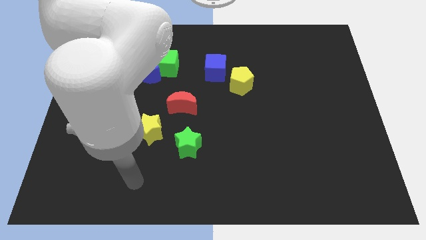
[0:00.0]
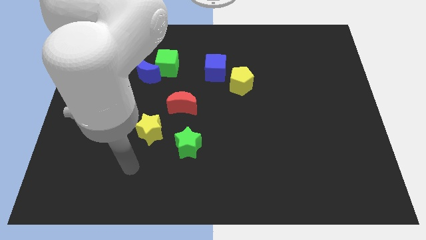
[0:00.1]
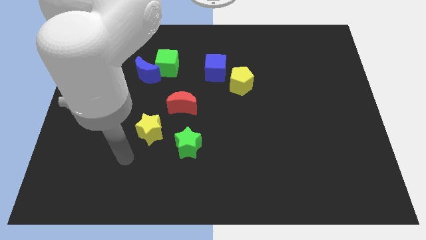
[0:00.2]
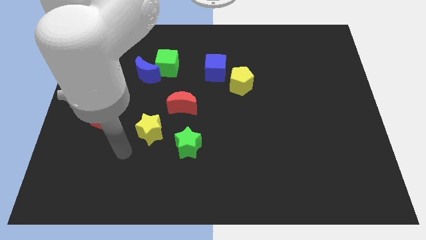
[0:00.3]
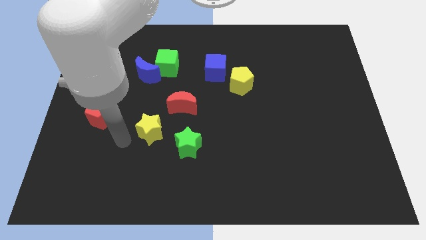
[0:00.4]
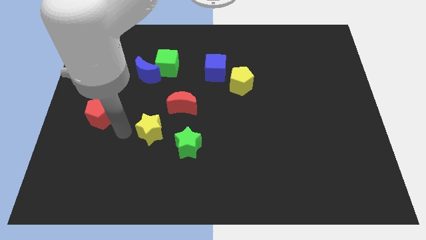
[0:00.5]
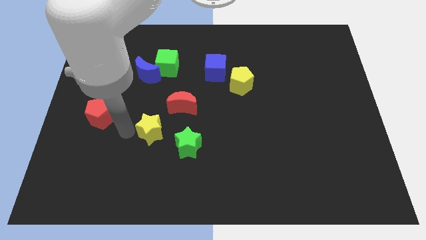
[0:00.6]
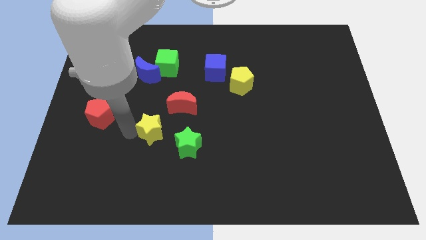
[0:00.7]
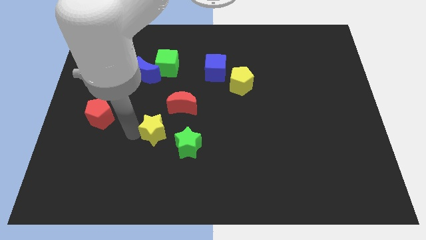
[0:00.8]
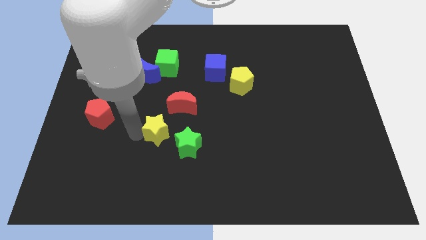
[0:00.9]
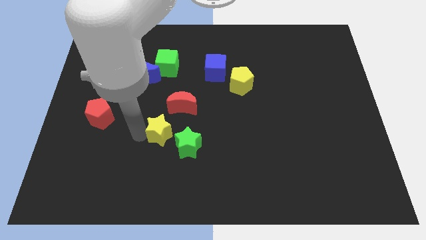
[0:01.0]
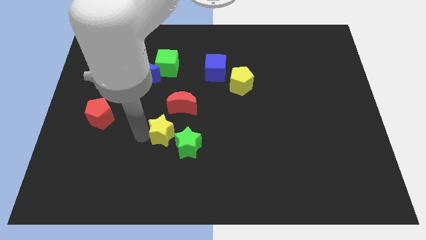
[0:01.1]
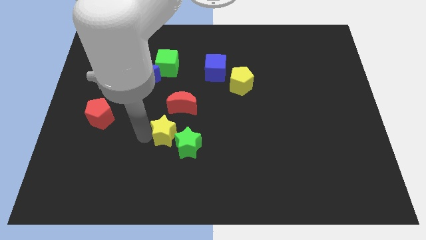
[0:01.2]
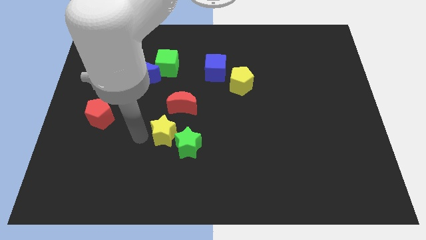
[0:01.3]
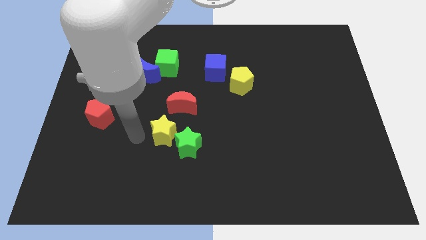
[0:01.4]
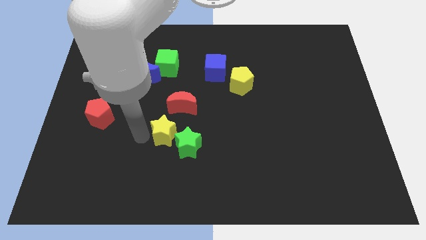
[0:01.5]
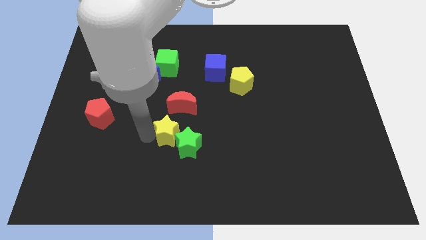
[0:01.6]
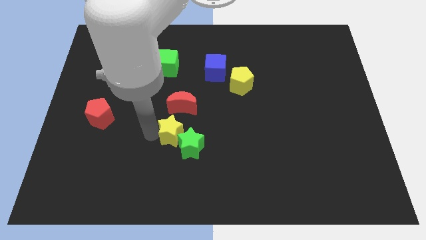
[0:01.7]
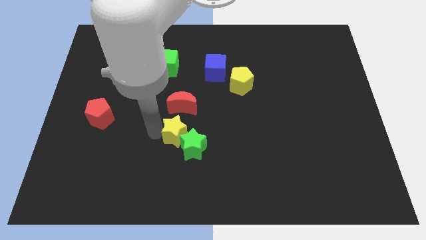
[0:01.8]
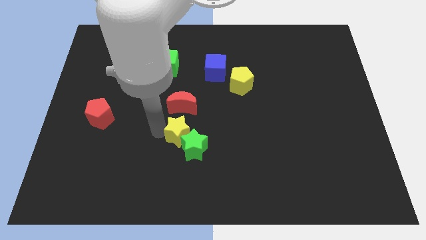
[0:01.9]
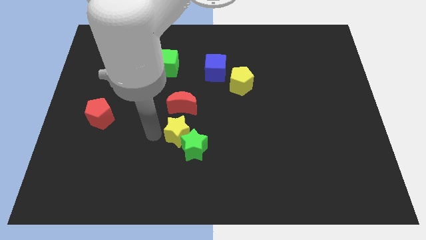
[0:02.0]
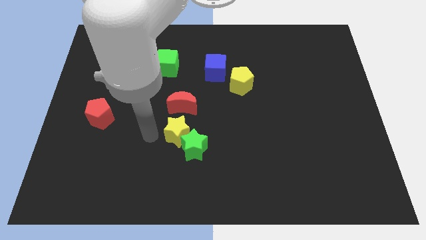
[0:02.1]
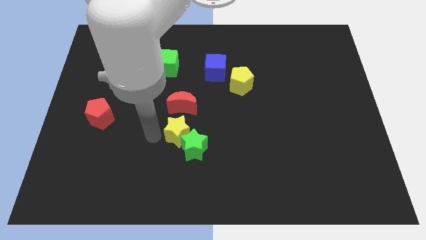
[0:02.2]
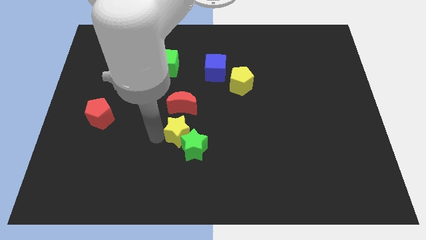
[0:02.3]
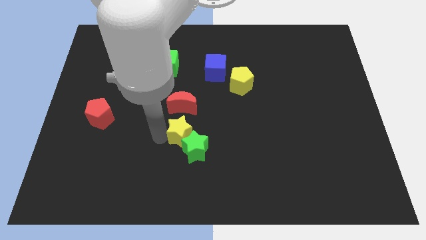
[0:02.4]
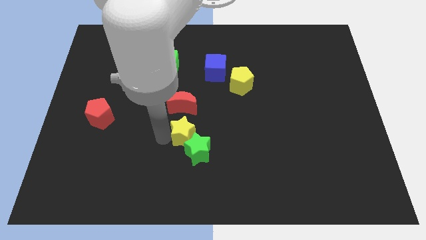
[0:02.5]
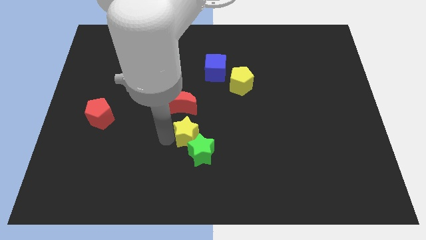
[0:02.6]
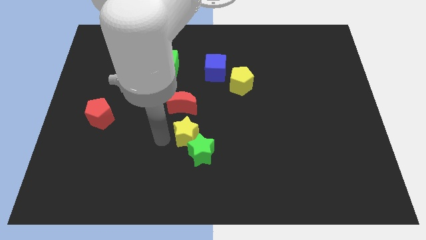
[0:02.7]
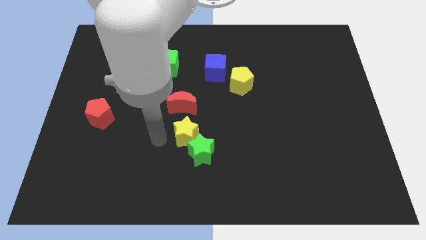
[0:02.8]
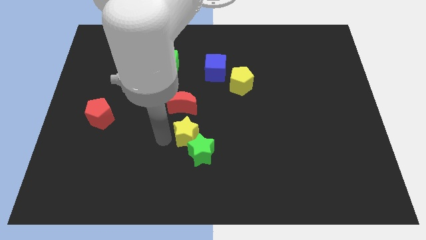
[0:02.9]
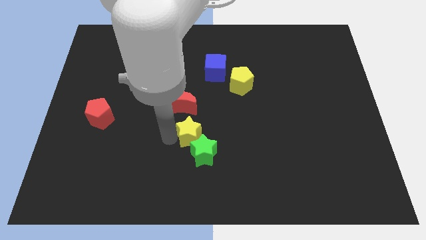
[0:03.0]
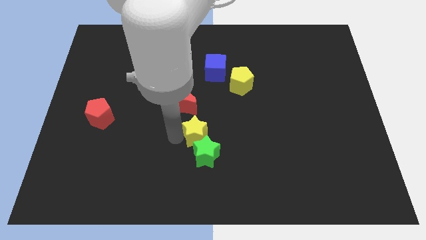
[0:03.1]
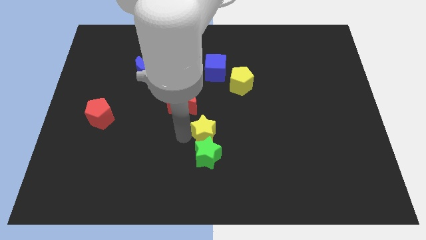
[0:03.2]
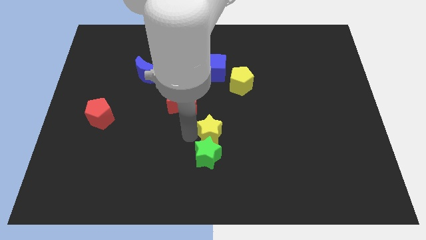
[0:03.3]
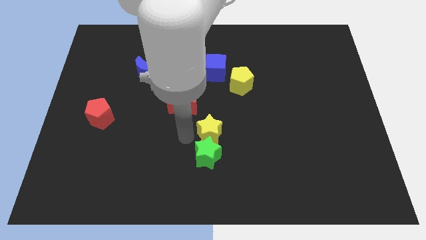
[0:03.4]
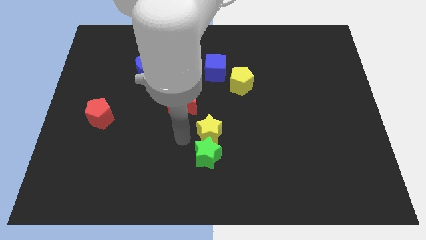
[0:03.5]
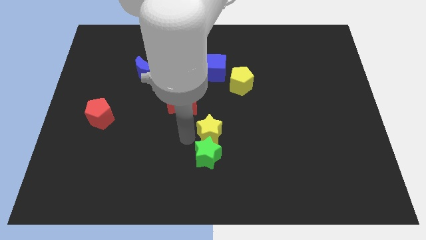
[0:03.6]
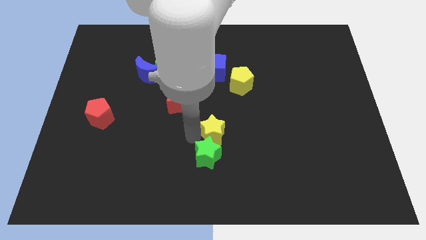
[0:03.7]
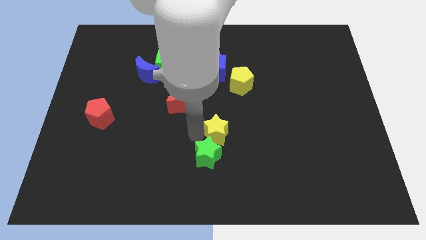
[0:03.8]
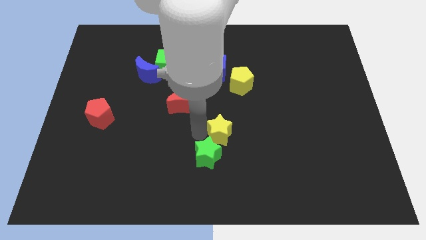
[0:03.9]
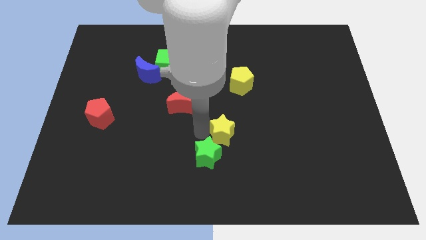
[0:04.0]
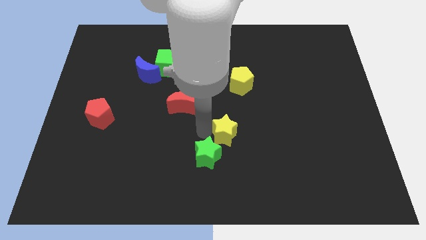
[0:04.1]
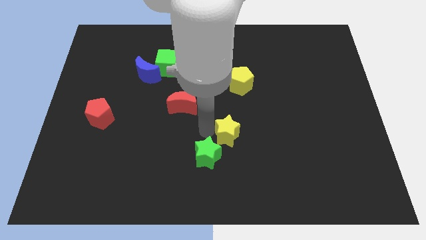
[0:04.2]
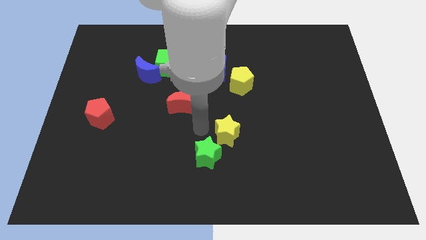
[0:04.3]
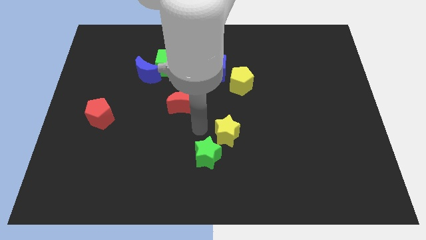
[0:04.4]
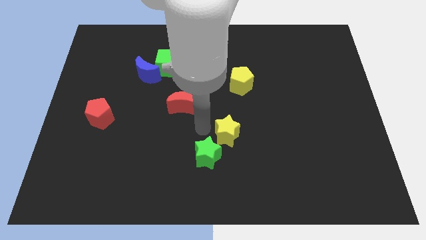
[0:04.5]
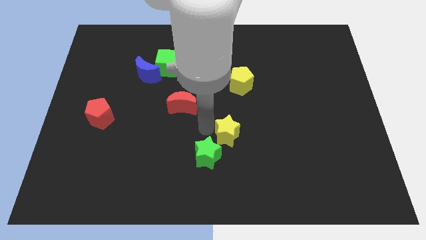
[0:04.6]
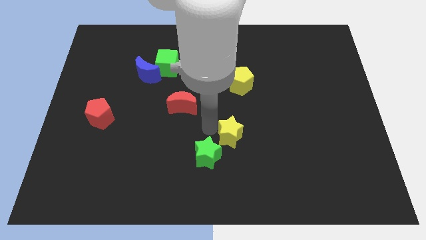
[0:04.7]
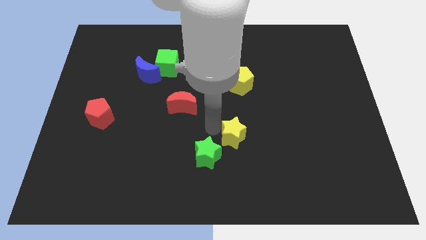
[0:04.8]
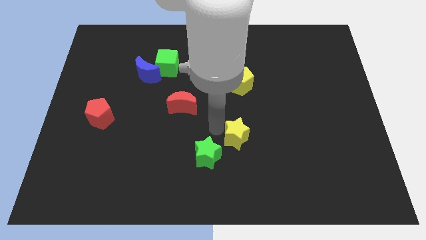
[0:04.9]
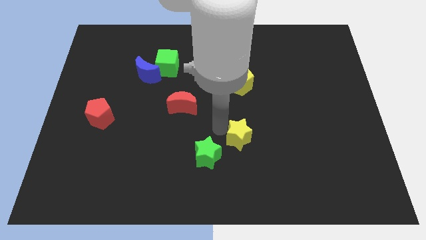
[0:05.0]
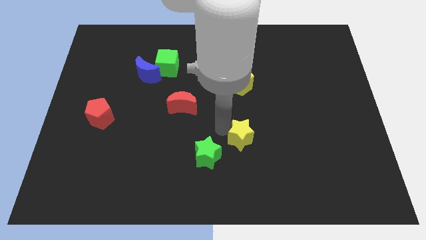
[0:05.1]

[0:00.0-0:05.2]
move the yellow star right

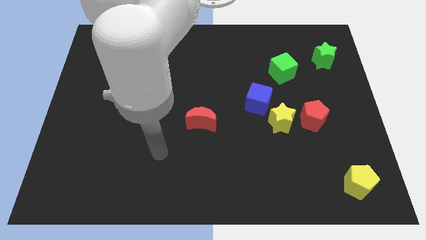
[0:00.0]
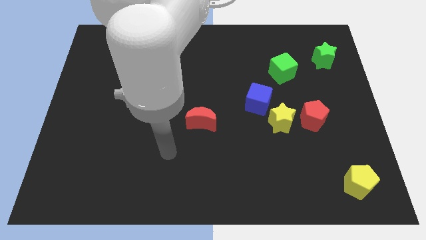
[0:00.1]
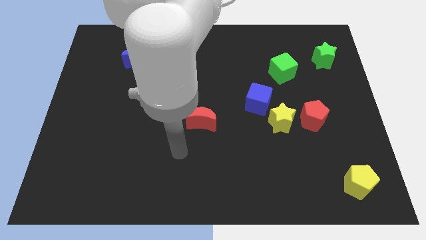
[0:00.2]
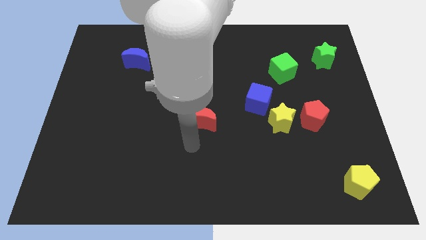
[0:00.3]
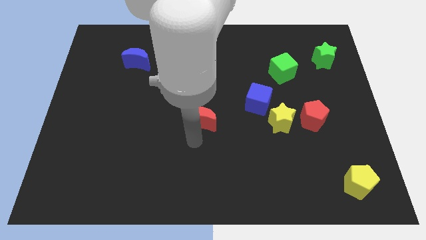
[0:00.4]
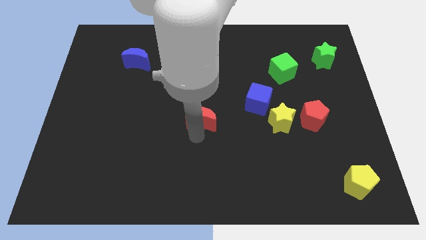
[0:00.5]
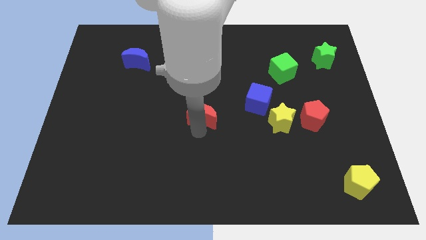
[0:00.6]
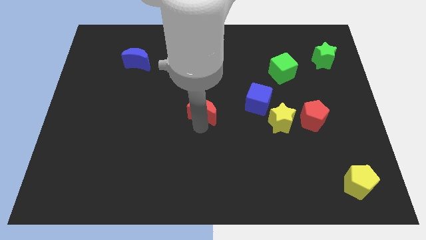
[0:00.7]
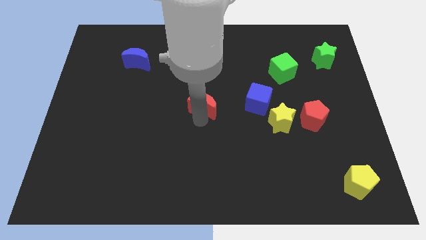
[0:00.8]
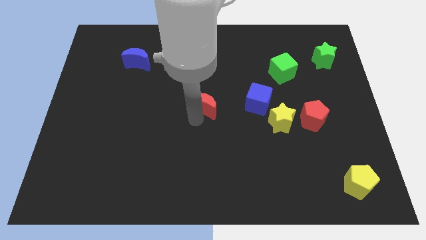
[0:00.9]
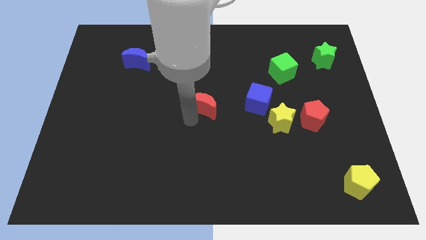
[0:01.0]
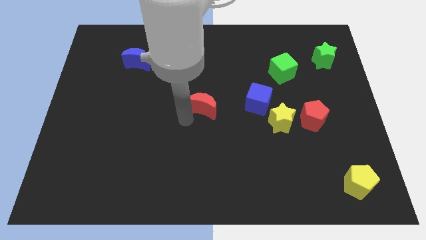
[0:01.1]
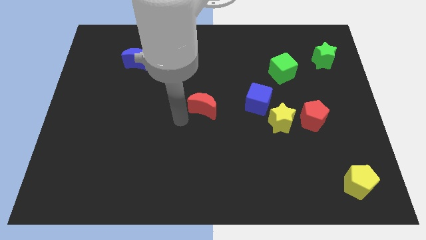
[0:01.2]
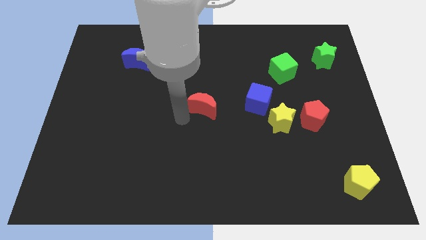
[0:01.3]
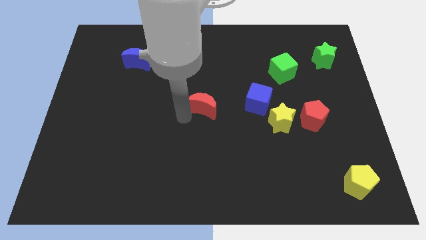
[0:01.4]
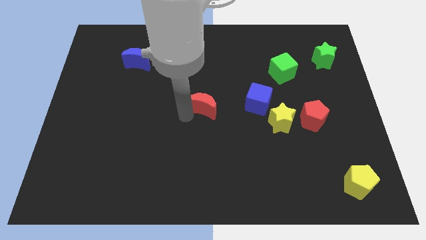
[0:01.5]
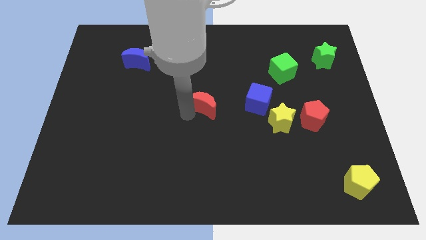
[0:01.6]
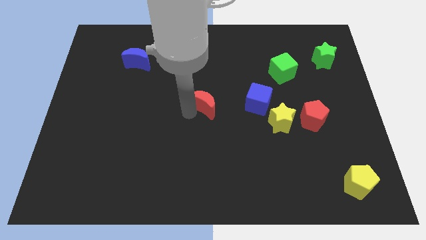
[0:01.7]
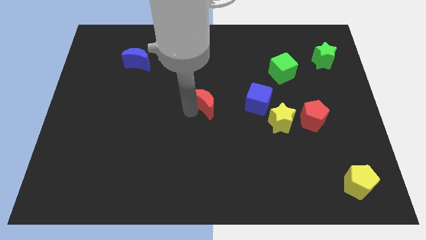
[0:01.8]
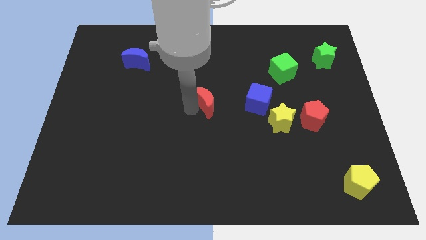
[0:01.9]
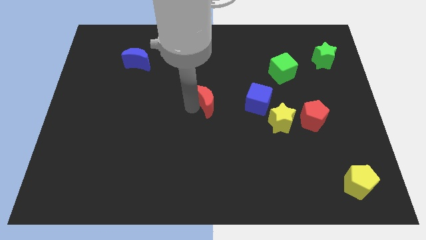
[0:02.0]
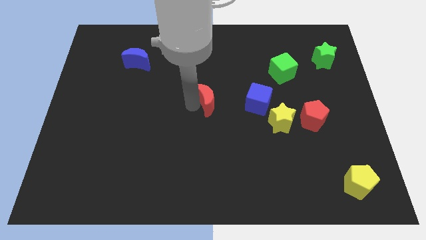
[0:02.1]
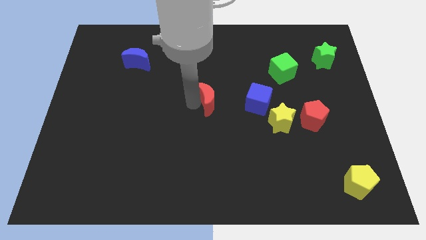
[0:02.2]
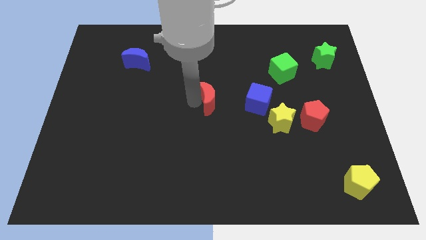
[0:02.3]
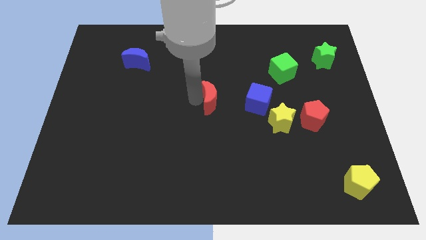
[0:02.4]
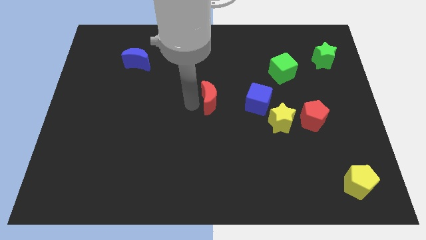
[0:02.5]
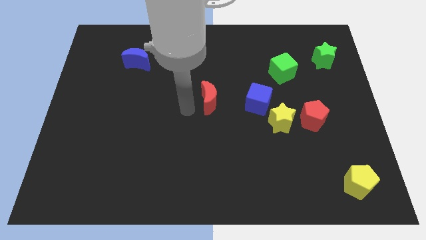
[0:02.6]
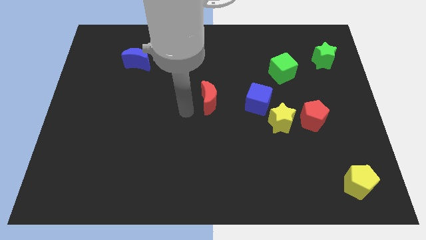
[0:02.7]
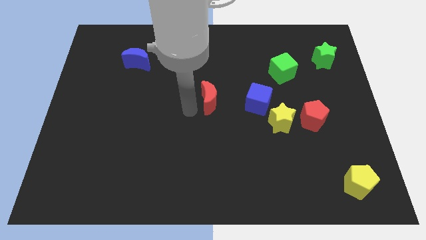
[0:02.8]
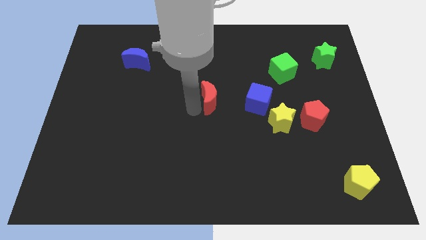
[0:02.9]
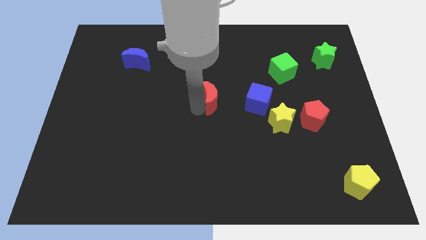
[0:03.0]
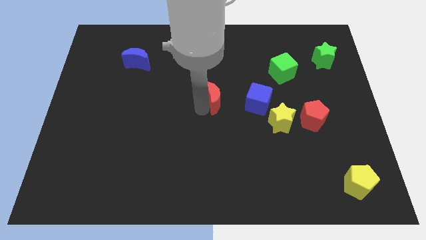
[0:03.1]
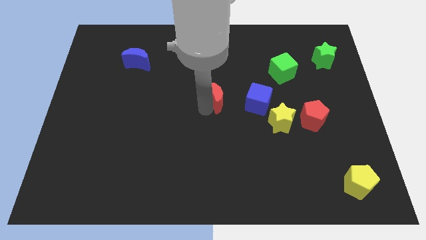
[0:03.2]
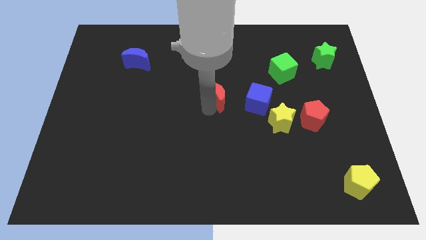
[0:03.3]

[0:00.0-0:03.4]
slide the red moon diagonally upwards and right slightly
